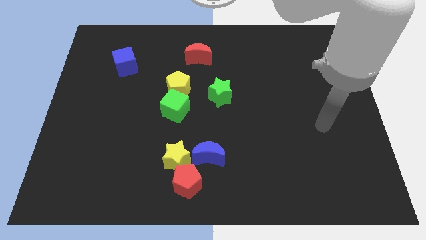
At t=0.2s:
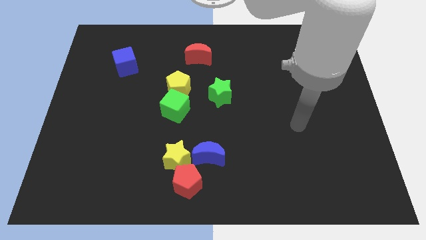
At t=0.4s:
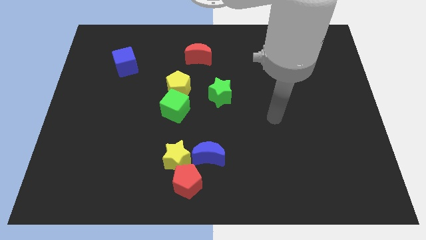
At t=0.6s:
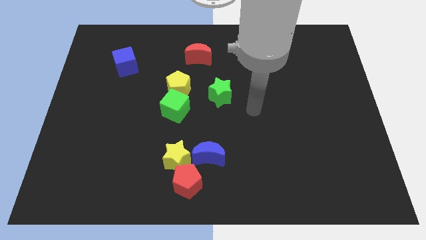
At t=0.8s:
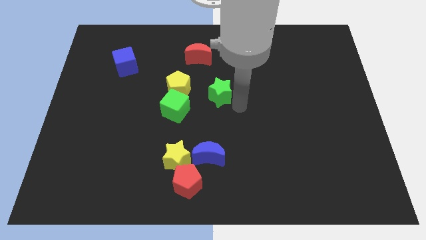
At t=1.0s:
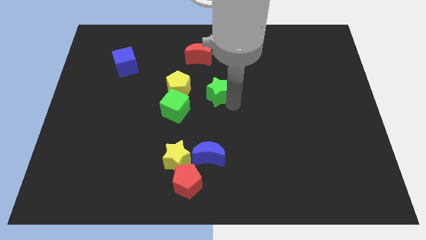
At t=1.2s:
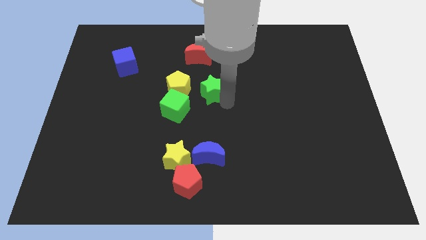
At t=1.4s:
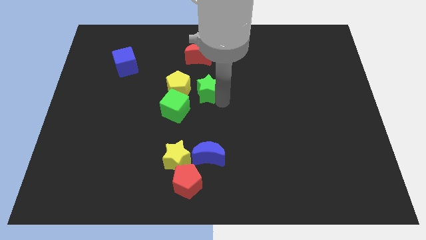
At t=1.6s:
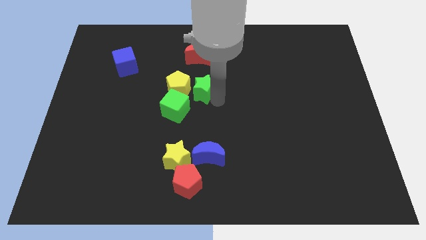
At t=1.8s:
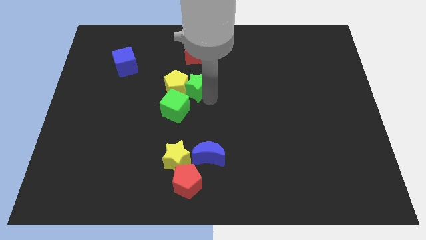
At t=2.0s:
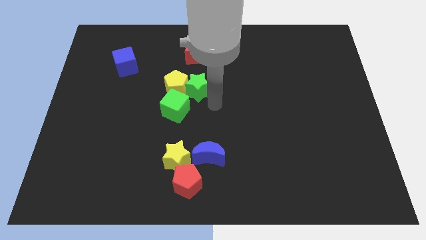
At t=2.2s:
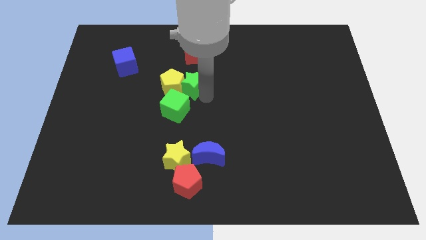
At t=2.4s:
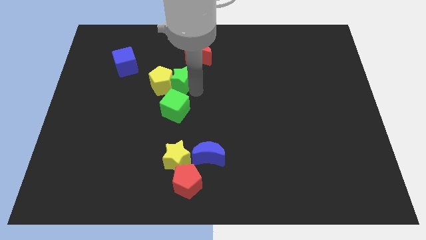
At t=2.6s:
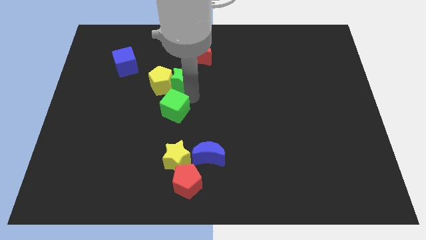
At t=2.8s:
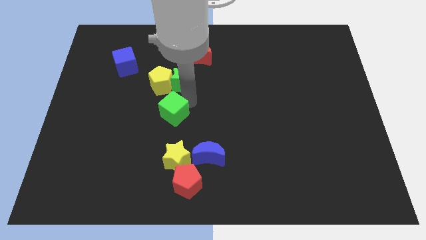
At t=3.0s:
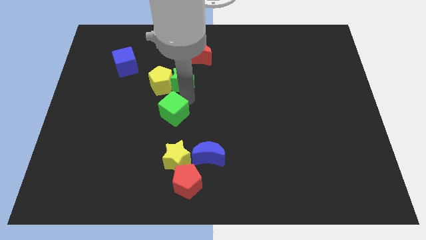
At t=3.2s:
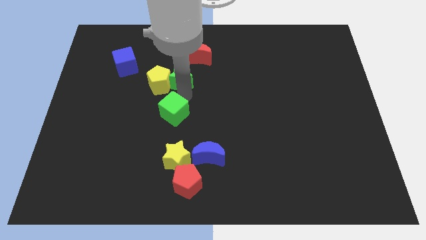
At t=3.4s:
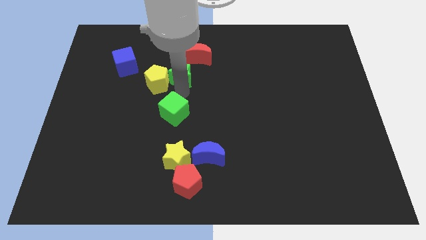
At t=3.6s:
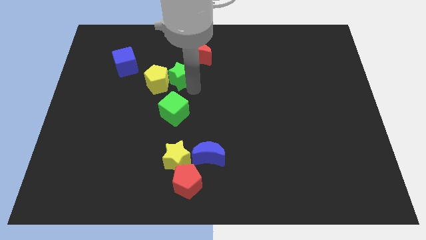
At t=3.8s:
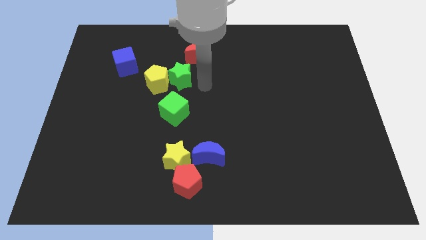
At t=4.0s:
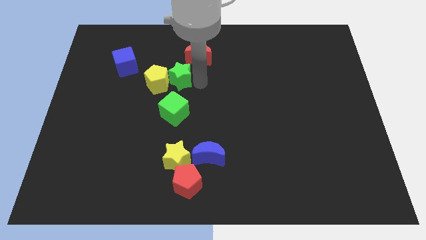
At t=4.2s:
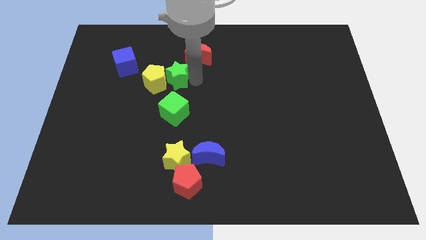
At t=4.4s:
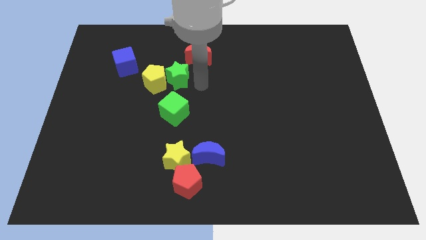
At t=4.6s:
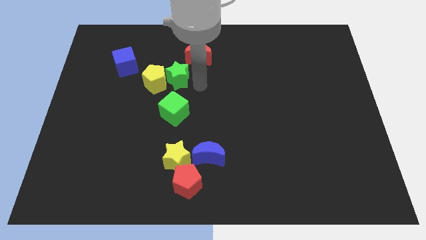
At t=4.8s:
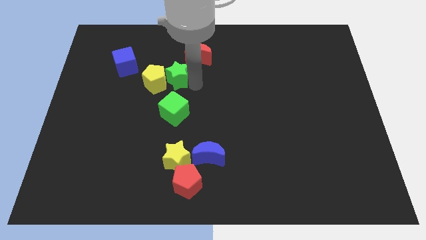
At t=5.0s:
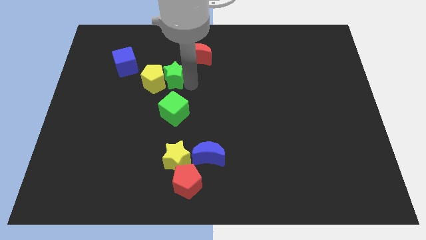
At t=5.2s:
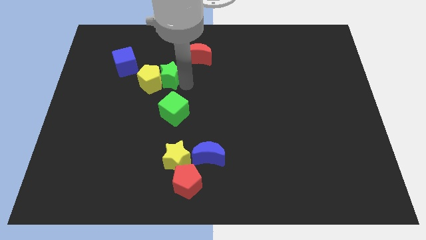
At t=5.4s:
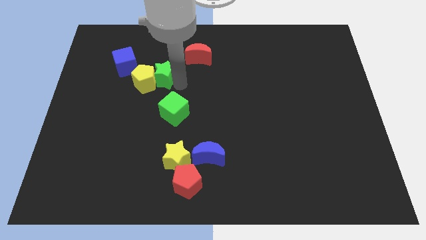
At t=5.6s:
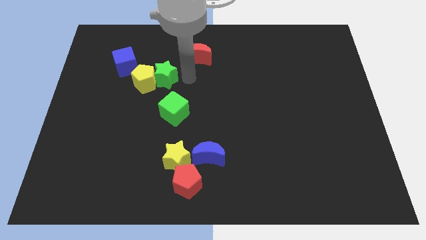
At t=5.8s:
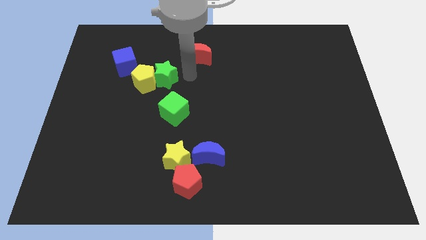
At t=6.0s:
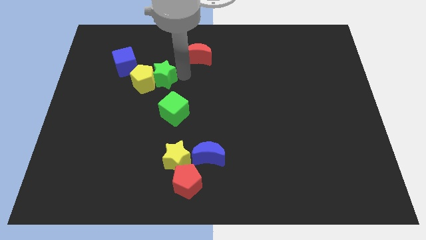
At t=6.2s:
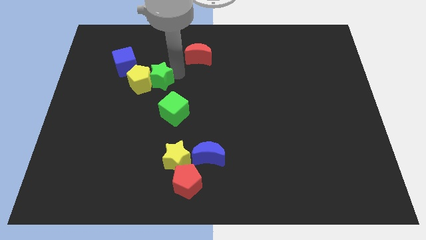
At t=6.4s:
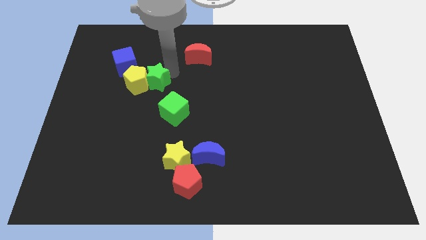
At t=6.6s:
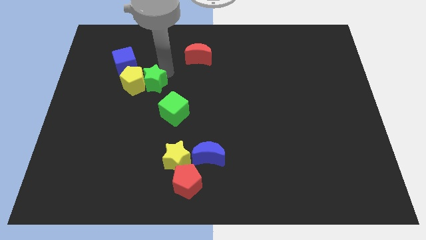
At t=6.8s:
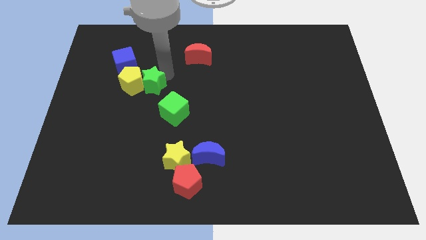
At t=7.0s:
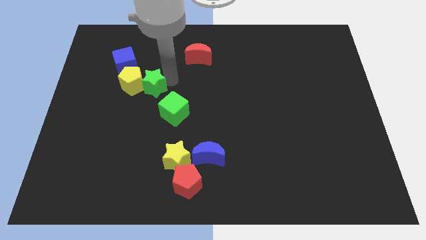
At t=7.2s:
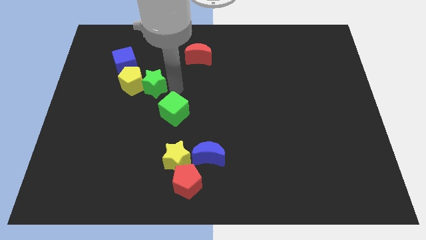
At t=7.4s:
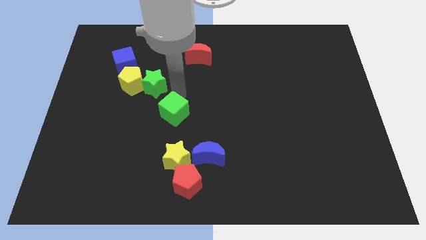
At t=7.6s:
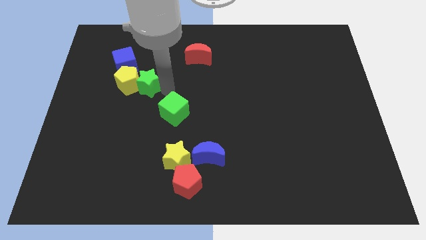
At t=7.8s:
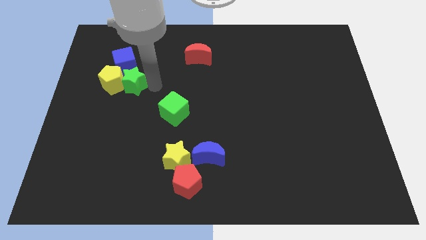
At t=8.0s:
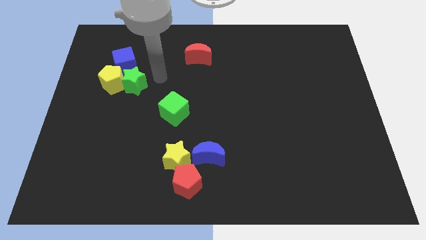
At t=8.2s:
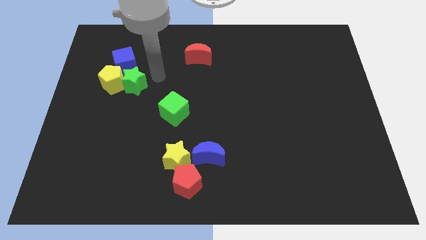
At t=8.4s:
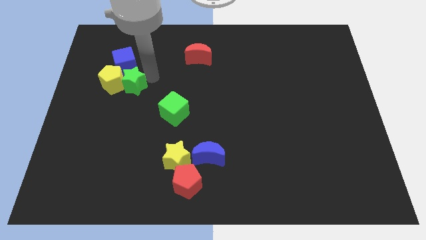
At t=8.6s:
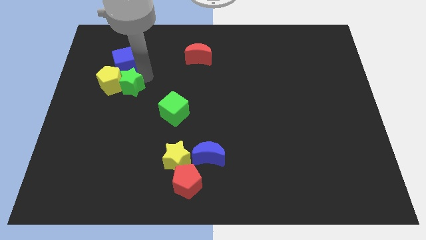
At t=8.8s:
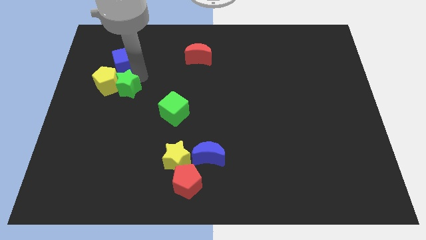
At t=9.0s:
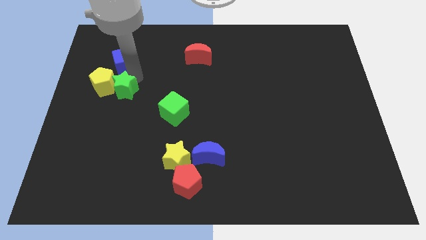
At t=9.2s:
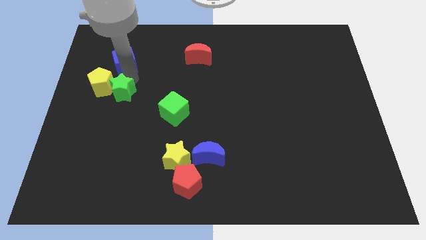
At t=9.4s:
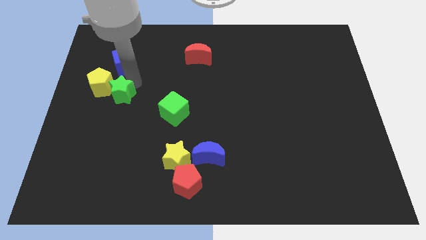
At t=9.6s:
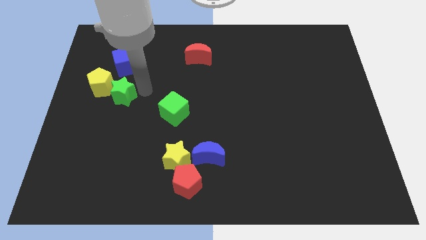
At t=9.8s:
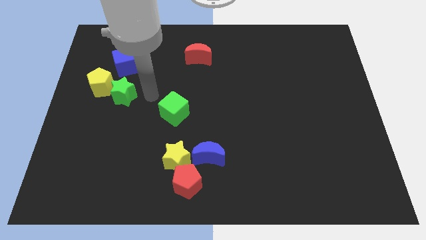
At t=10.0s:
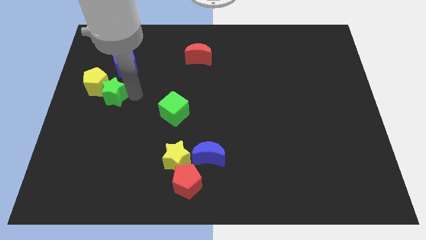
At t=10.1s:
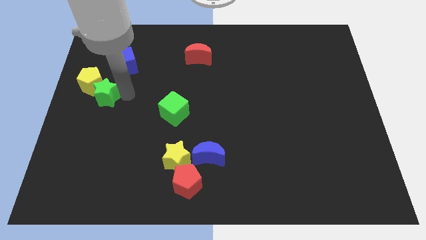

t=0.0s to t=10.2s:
move the green star to the center left

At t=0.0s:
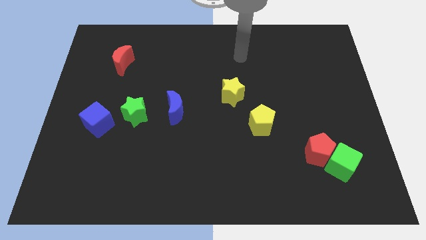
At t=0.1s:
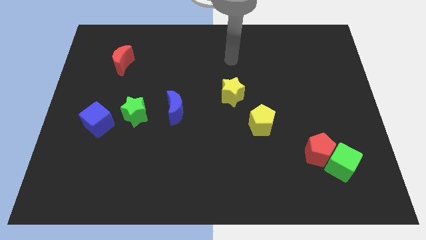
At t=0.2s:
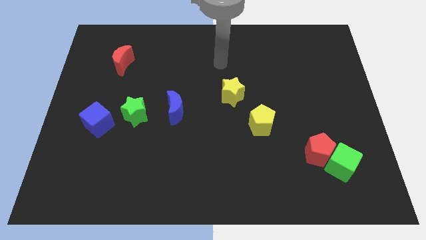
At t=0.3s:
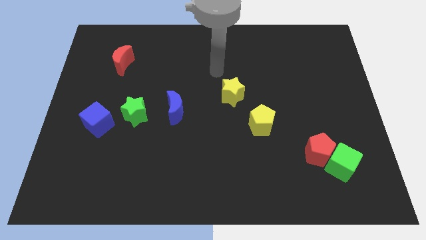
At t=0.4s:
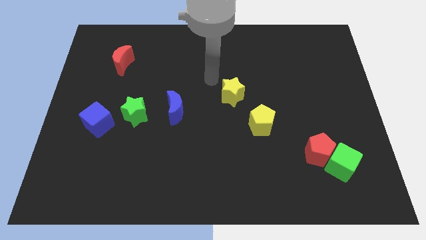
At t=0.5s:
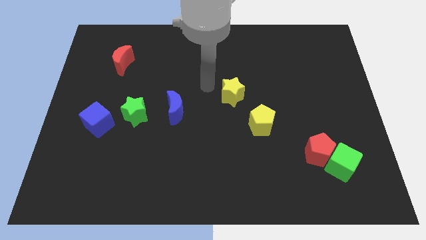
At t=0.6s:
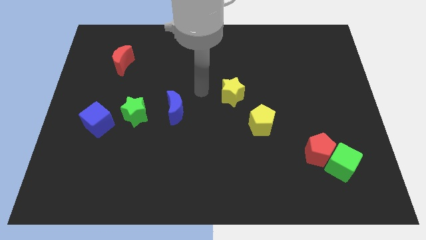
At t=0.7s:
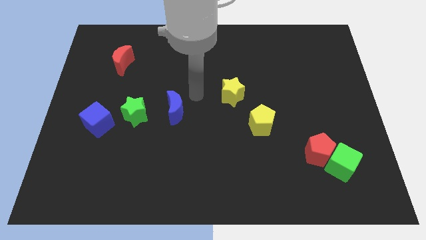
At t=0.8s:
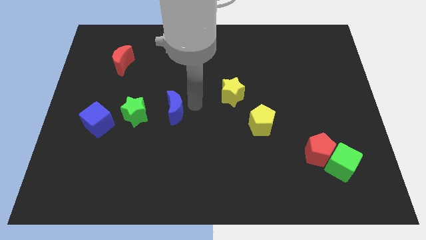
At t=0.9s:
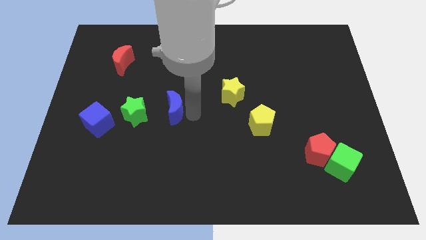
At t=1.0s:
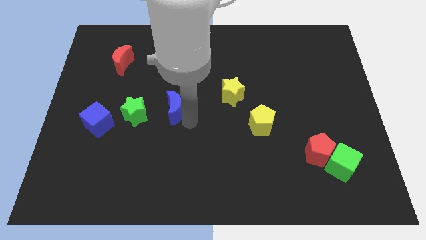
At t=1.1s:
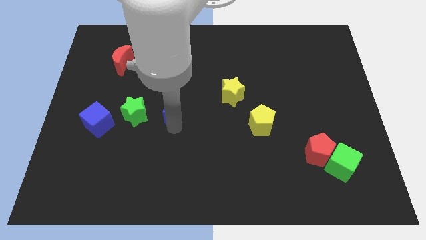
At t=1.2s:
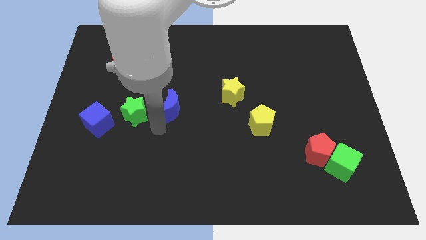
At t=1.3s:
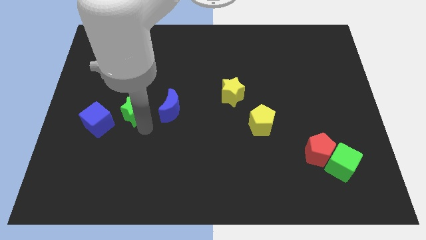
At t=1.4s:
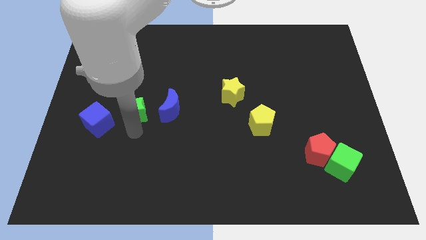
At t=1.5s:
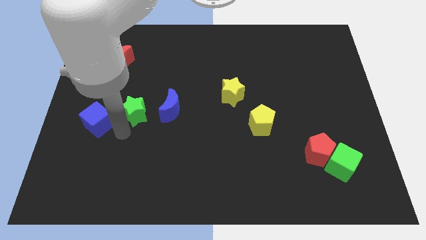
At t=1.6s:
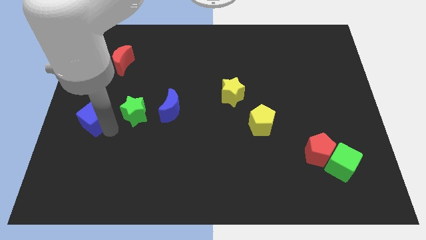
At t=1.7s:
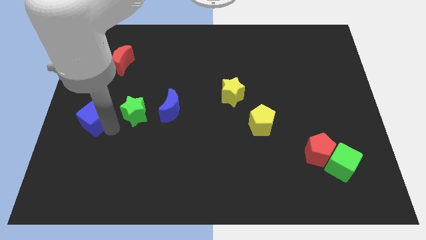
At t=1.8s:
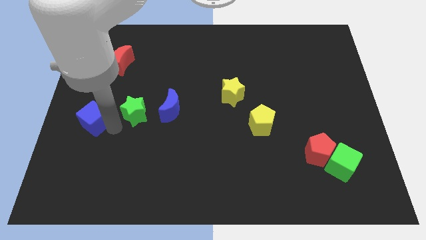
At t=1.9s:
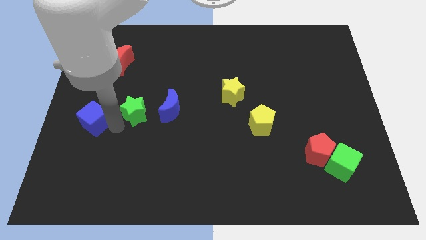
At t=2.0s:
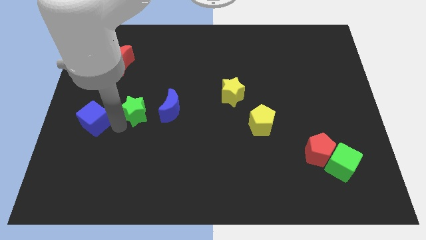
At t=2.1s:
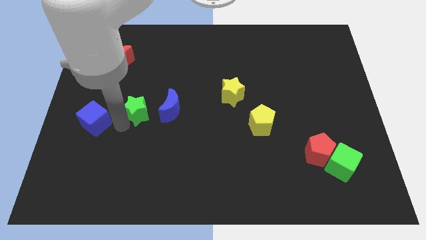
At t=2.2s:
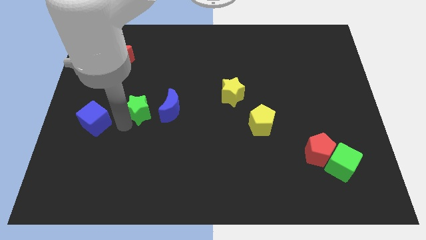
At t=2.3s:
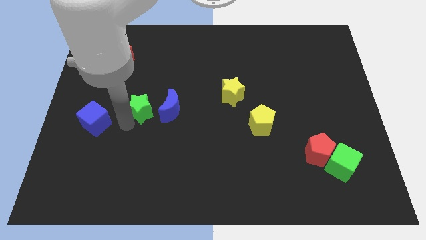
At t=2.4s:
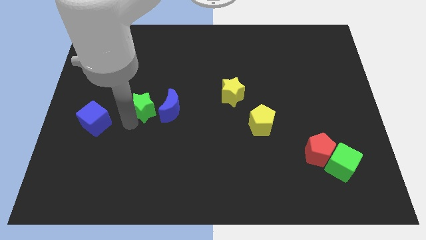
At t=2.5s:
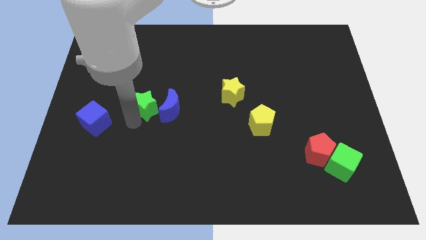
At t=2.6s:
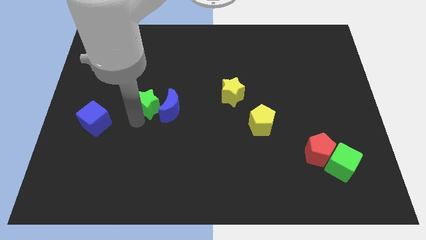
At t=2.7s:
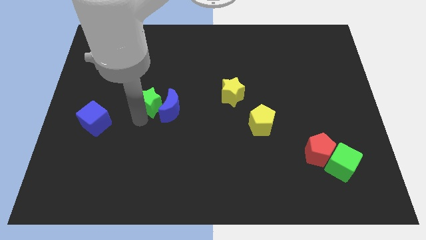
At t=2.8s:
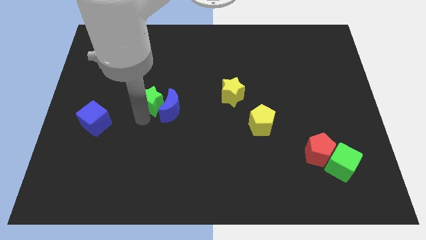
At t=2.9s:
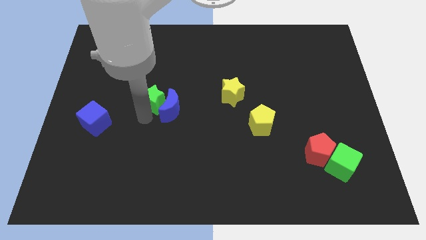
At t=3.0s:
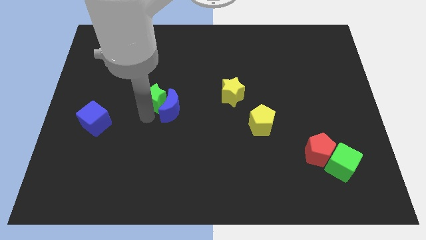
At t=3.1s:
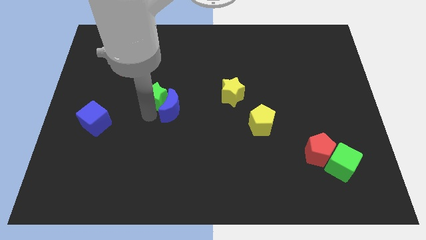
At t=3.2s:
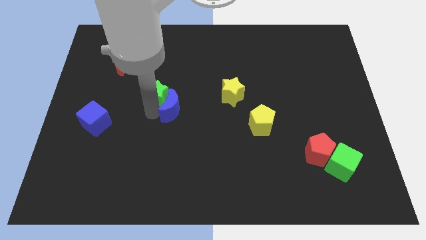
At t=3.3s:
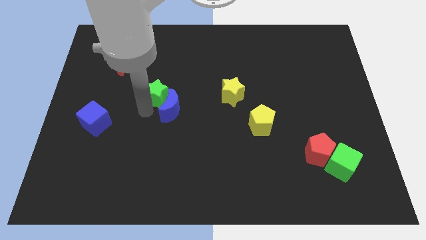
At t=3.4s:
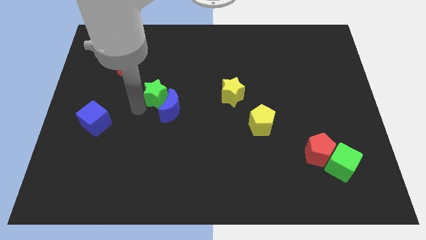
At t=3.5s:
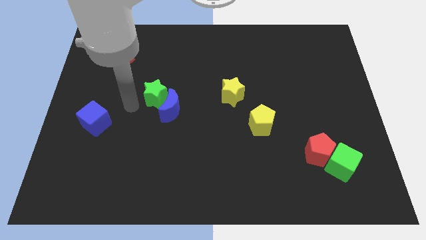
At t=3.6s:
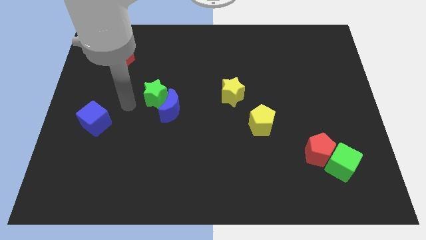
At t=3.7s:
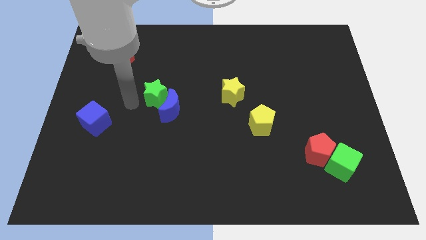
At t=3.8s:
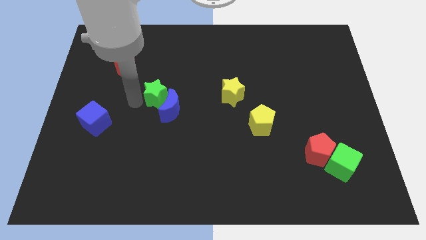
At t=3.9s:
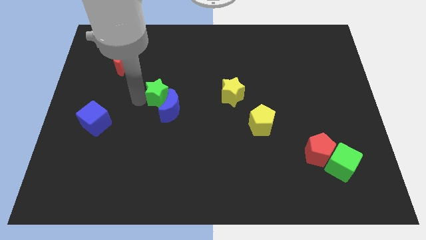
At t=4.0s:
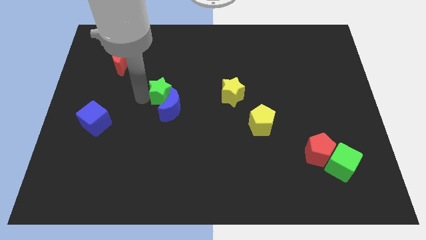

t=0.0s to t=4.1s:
put the green star to the middle
